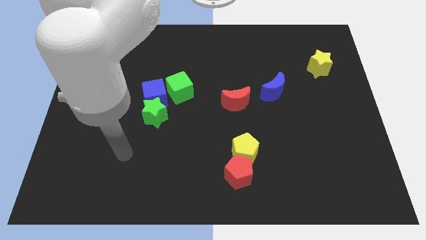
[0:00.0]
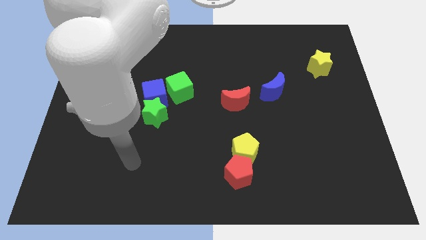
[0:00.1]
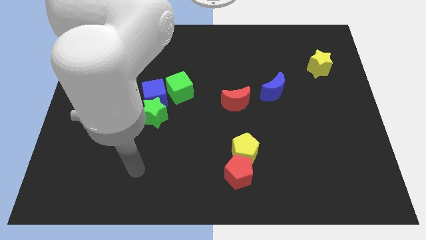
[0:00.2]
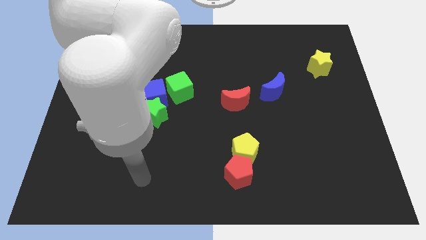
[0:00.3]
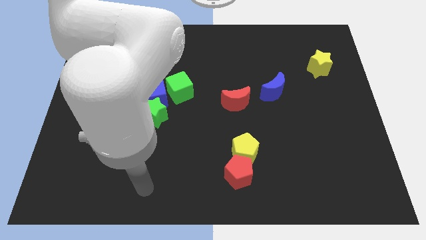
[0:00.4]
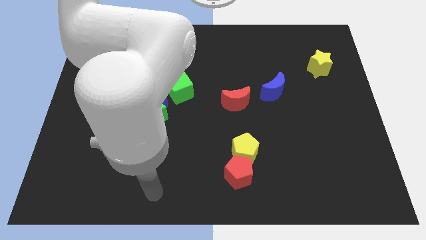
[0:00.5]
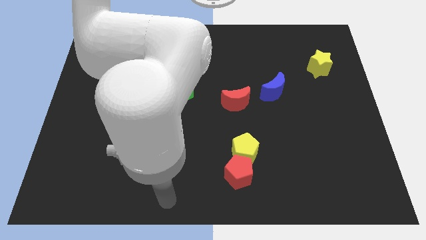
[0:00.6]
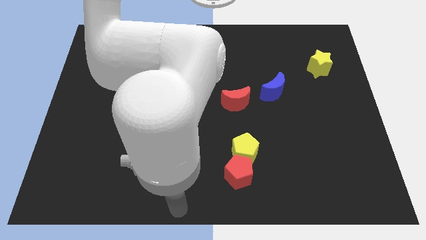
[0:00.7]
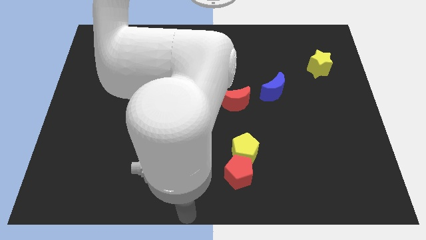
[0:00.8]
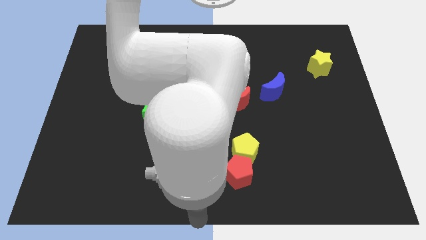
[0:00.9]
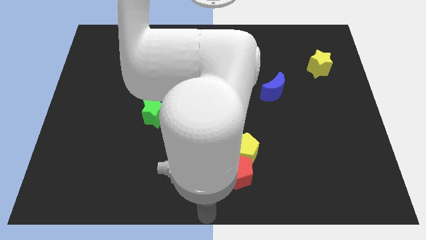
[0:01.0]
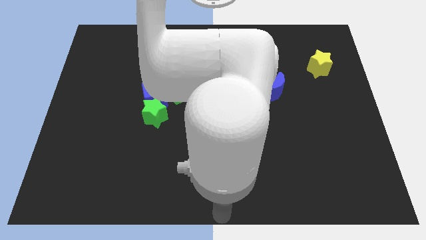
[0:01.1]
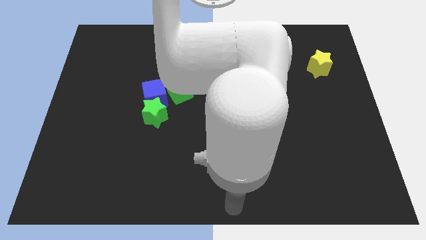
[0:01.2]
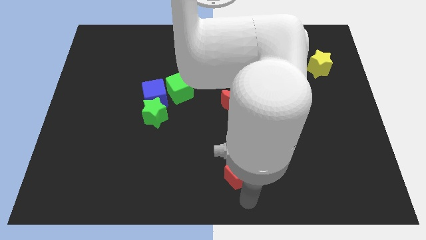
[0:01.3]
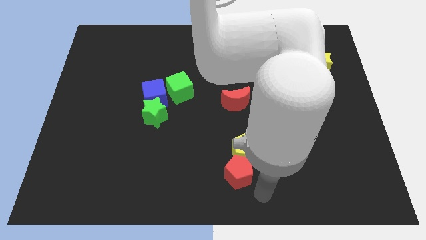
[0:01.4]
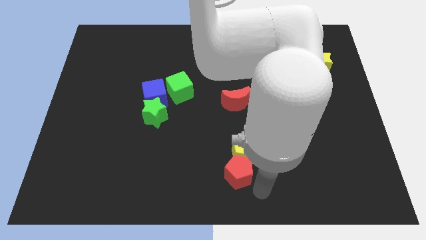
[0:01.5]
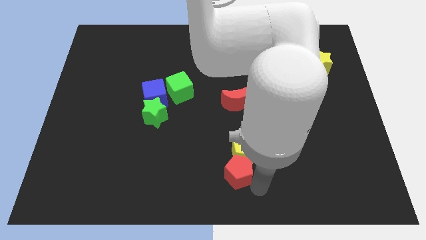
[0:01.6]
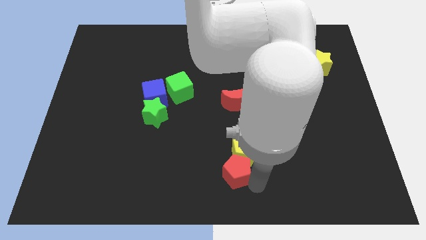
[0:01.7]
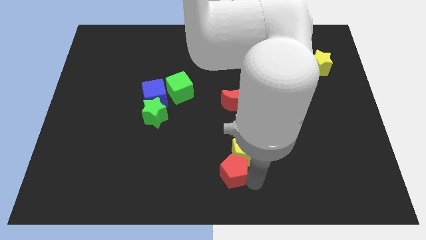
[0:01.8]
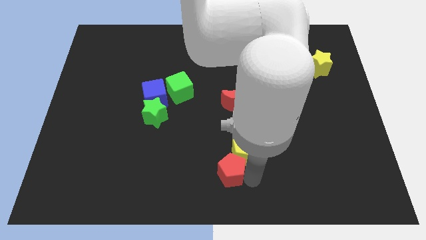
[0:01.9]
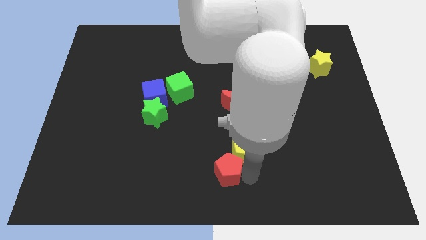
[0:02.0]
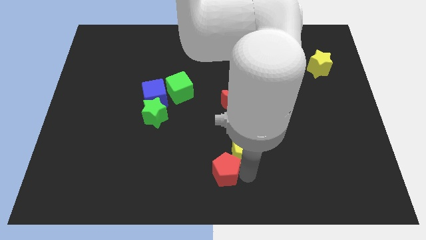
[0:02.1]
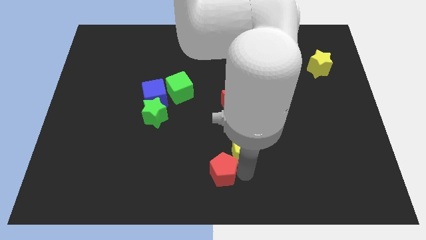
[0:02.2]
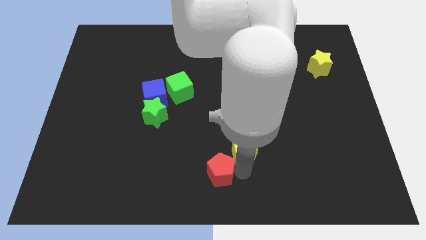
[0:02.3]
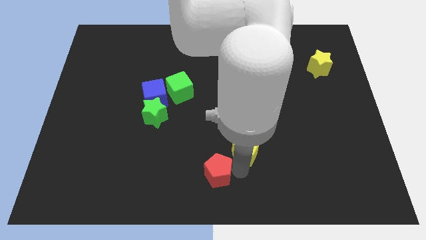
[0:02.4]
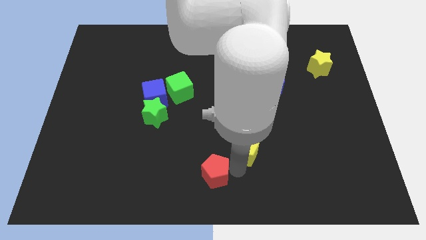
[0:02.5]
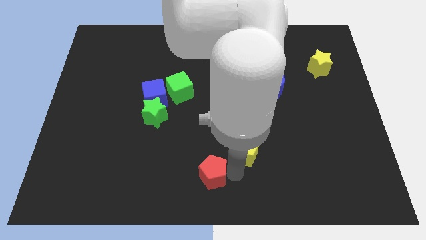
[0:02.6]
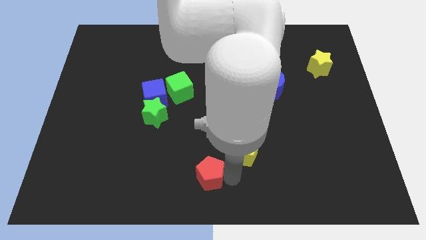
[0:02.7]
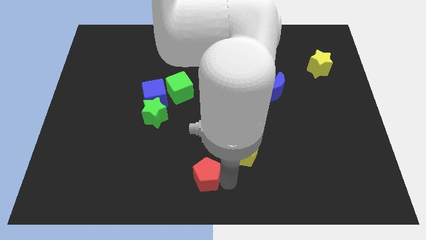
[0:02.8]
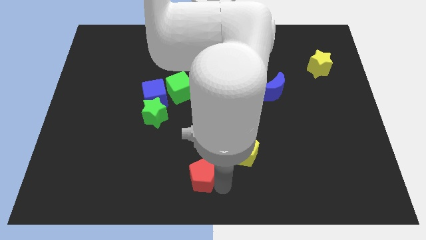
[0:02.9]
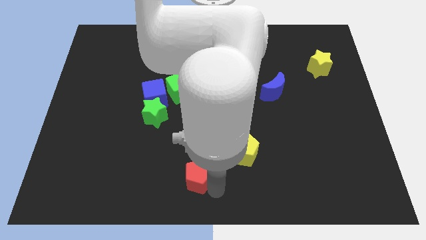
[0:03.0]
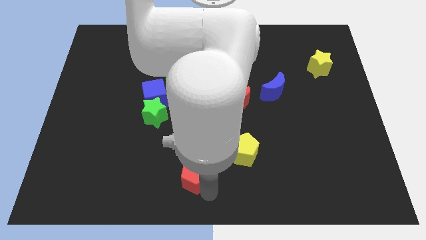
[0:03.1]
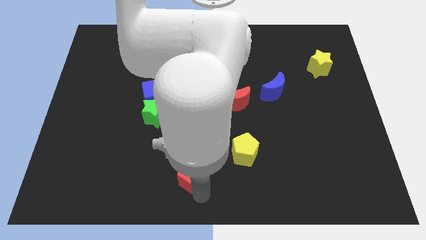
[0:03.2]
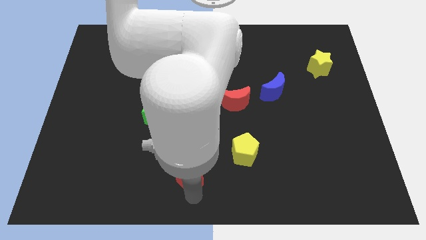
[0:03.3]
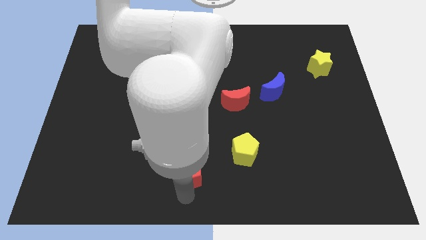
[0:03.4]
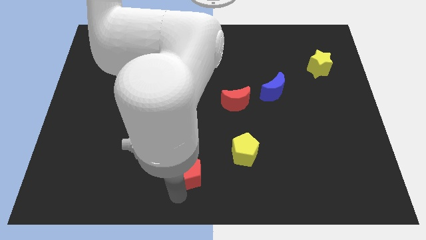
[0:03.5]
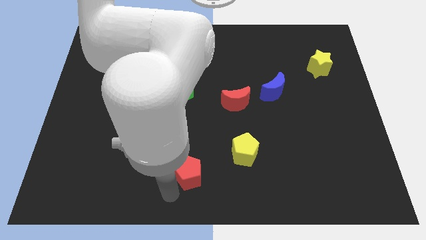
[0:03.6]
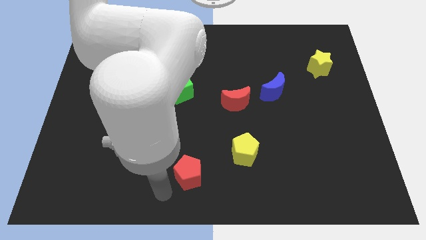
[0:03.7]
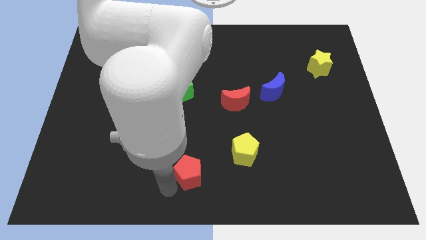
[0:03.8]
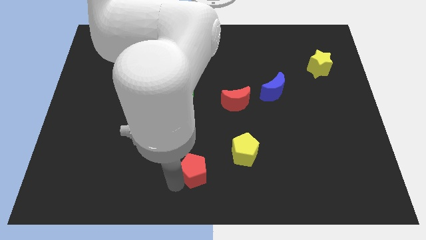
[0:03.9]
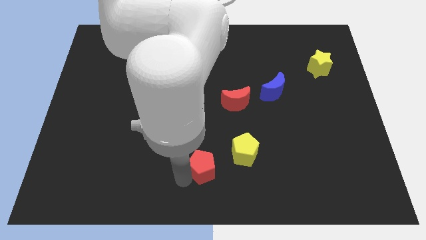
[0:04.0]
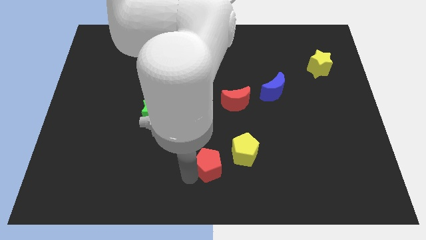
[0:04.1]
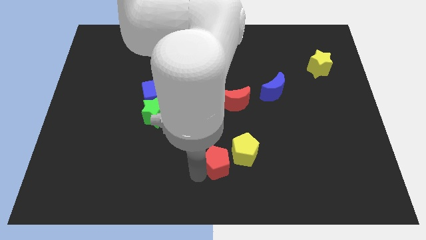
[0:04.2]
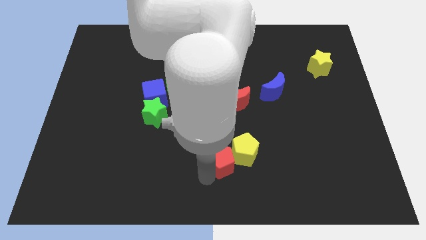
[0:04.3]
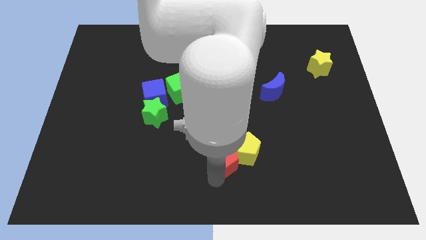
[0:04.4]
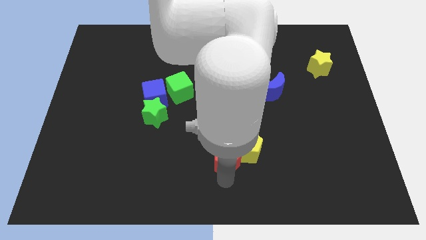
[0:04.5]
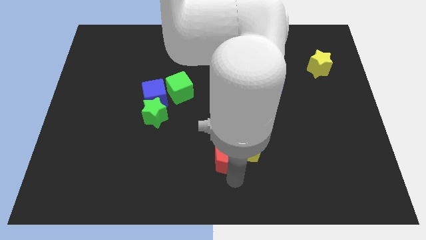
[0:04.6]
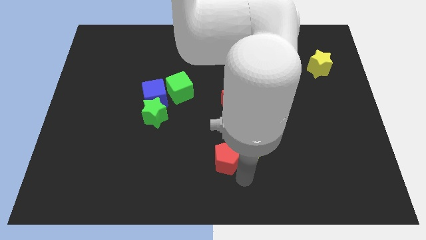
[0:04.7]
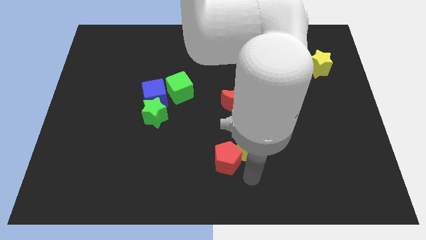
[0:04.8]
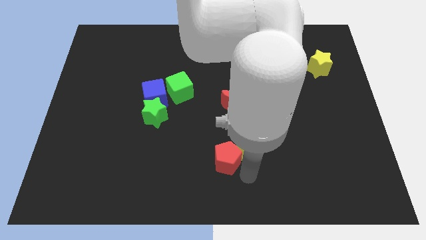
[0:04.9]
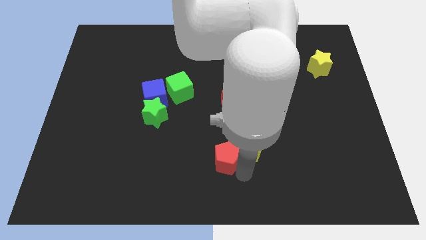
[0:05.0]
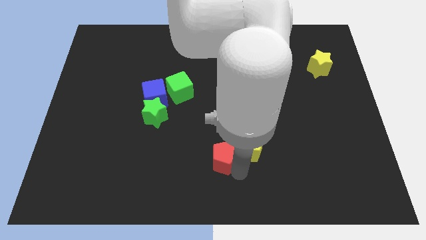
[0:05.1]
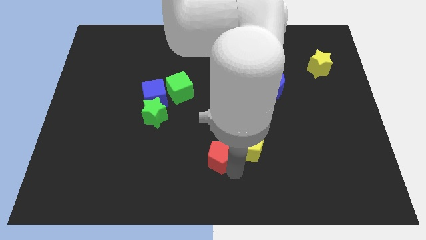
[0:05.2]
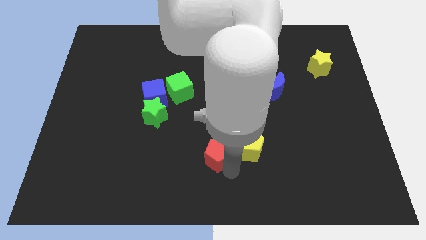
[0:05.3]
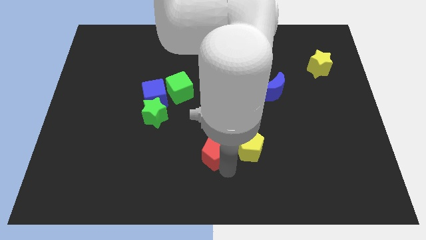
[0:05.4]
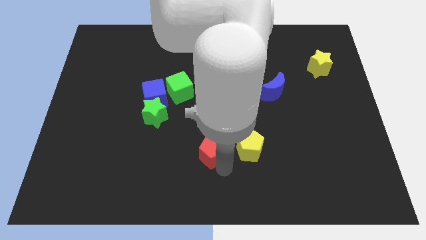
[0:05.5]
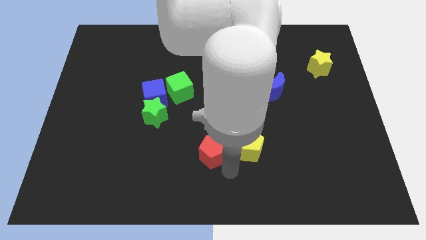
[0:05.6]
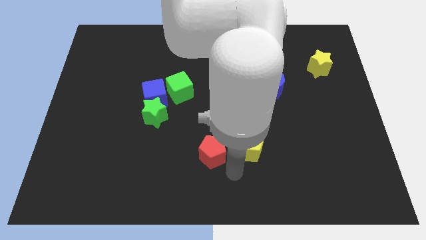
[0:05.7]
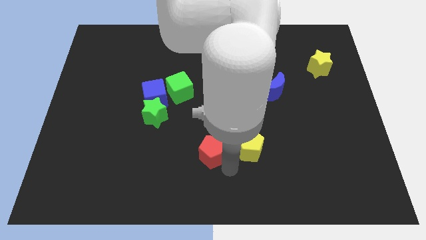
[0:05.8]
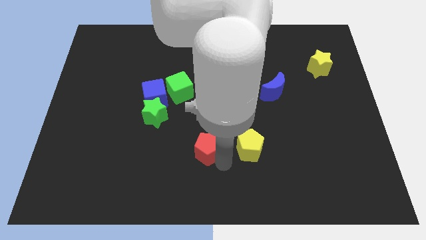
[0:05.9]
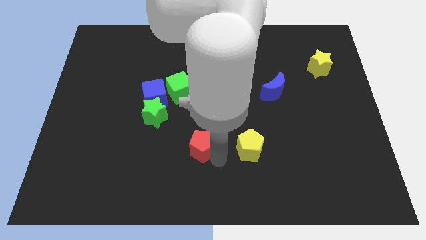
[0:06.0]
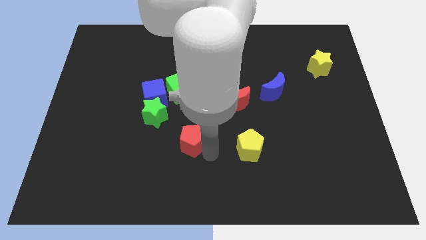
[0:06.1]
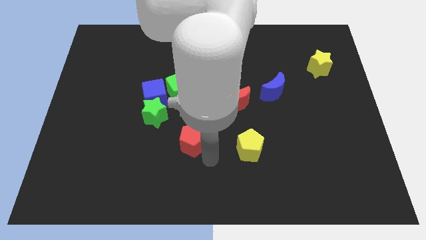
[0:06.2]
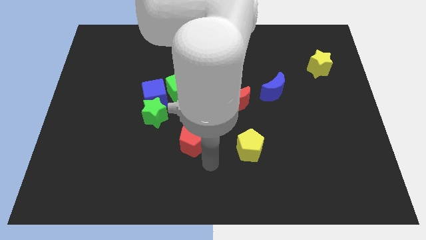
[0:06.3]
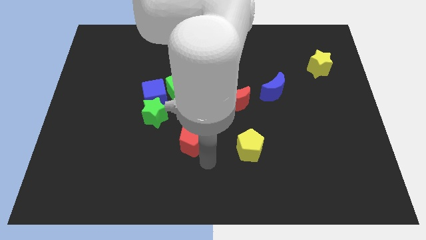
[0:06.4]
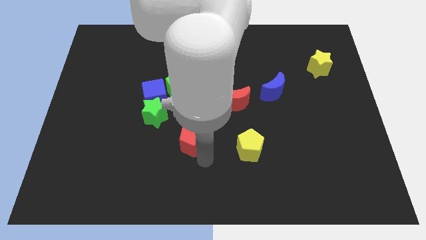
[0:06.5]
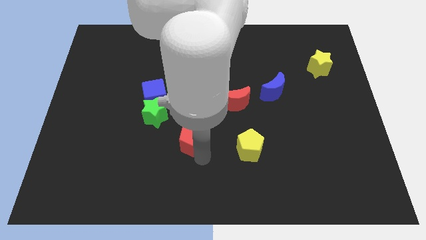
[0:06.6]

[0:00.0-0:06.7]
move the red pentagon to the bottom side of the green cube

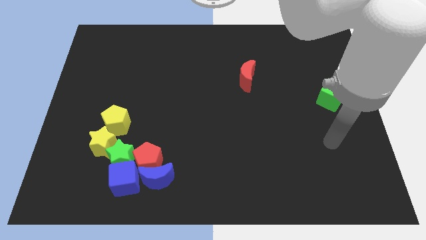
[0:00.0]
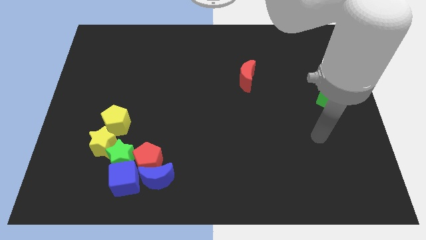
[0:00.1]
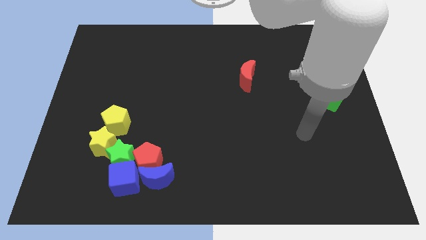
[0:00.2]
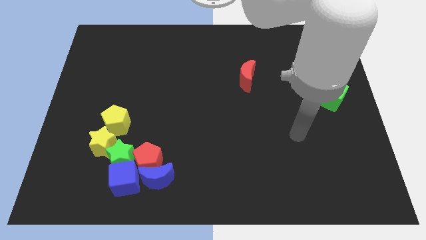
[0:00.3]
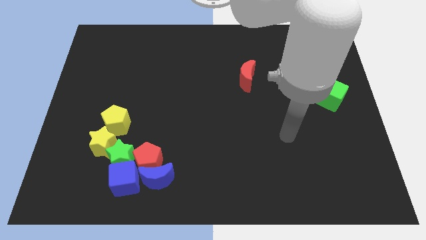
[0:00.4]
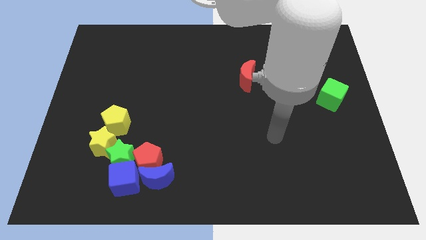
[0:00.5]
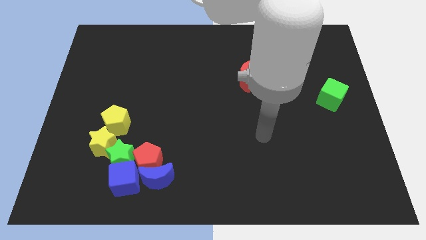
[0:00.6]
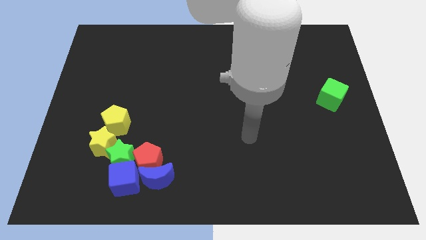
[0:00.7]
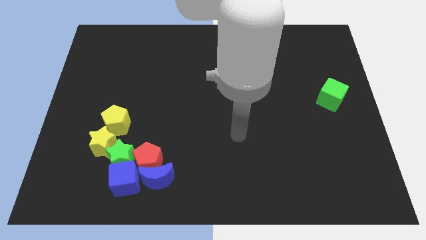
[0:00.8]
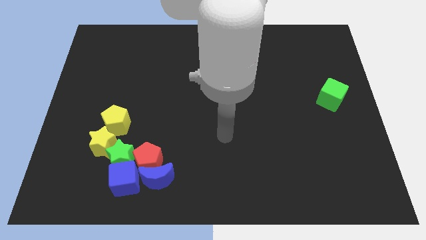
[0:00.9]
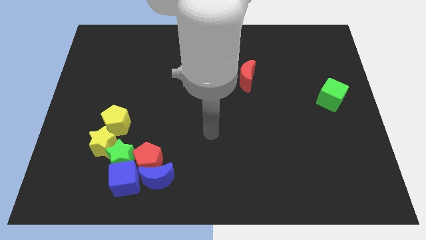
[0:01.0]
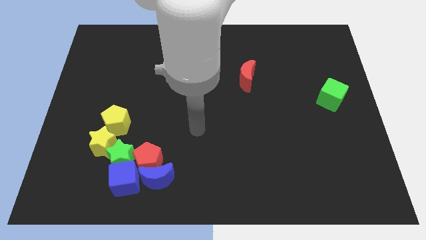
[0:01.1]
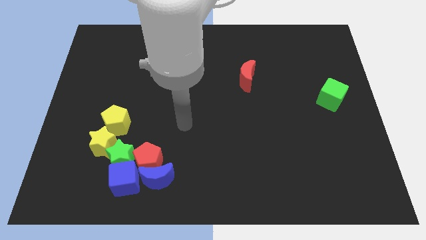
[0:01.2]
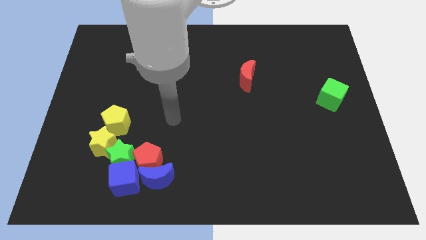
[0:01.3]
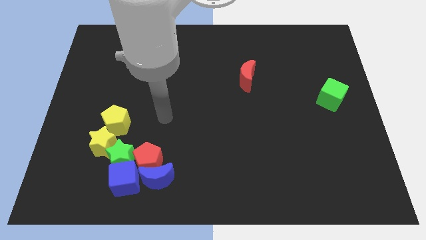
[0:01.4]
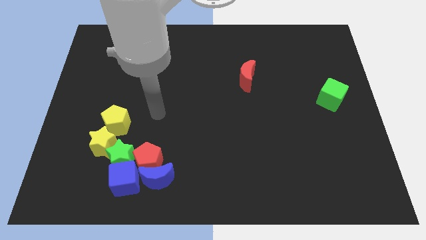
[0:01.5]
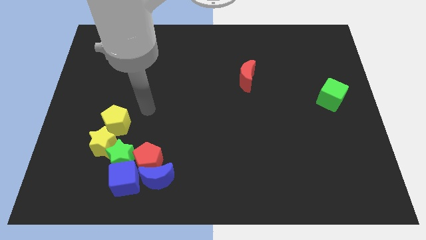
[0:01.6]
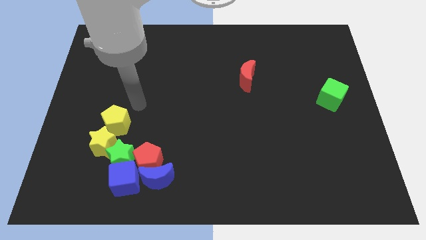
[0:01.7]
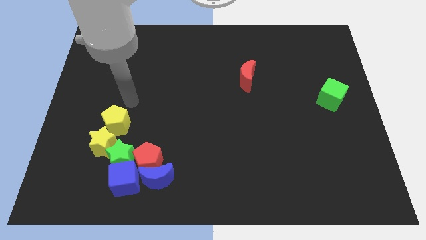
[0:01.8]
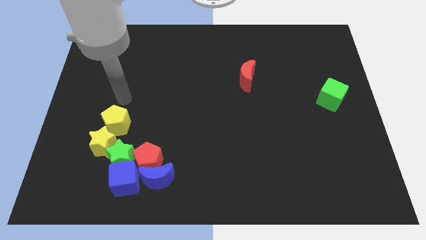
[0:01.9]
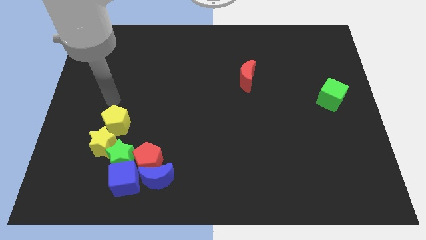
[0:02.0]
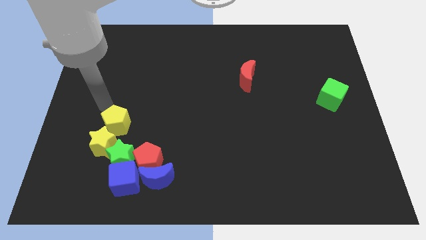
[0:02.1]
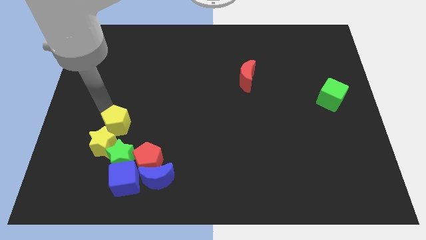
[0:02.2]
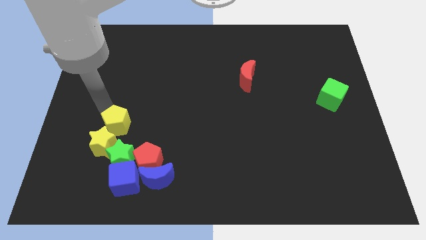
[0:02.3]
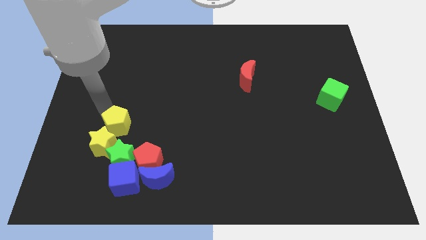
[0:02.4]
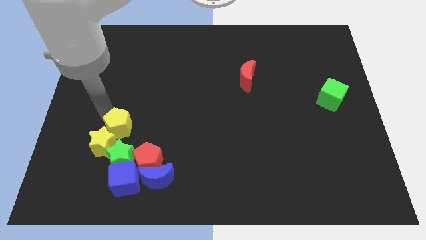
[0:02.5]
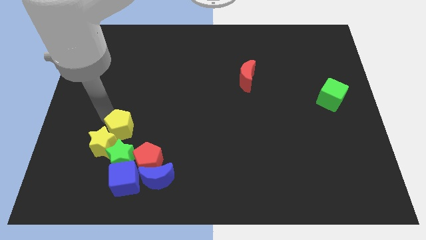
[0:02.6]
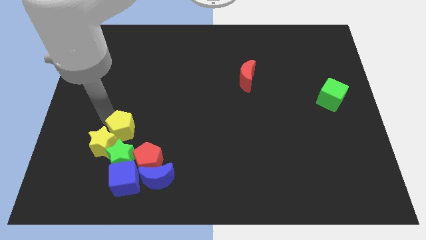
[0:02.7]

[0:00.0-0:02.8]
slide the yellow pentagon to the right side of the yellow star
